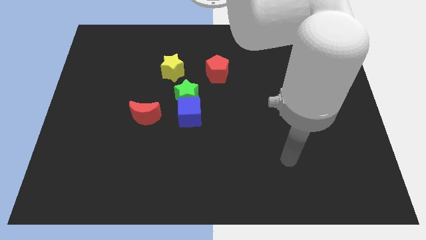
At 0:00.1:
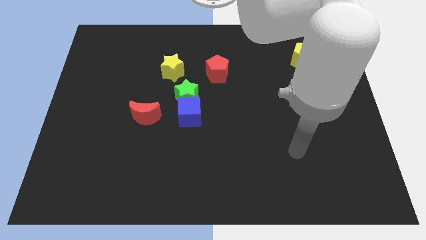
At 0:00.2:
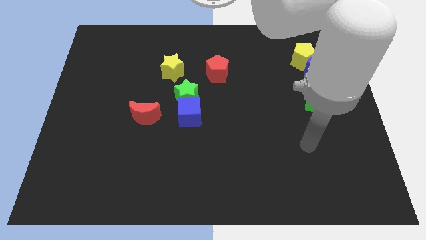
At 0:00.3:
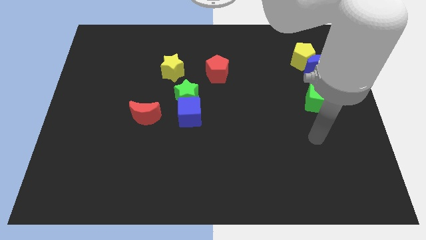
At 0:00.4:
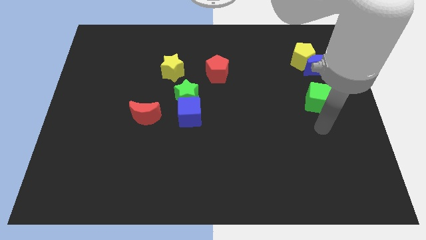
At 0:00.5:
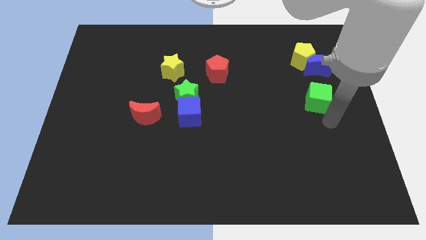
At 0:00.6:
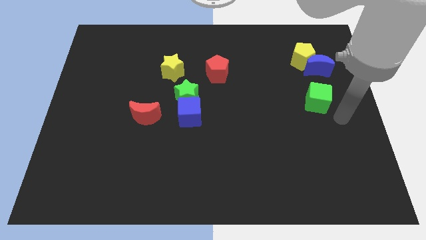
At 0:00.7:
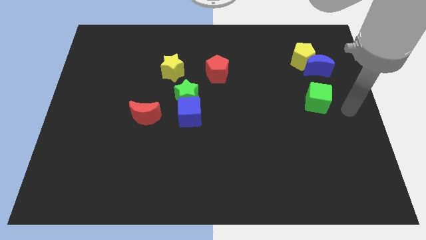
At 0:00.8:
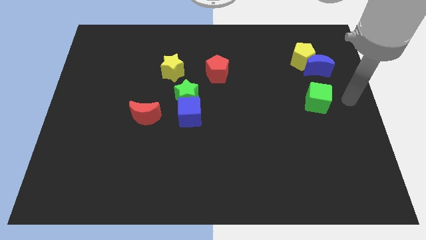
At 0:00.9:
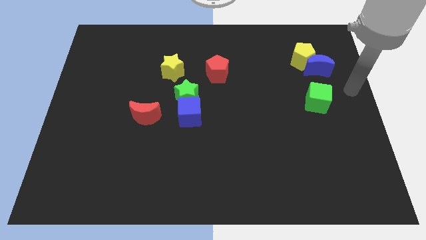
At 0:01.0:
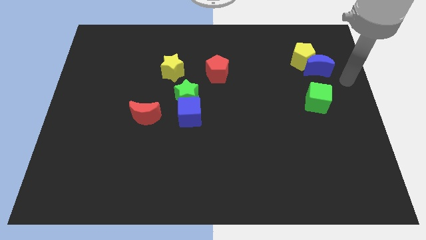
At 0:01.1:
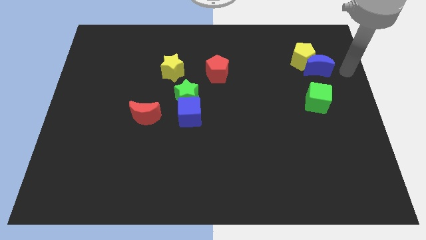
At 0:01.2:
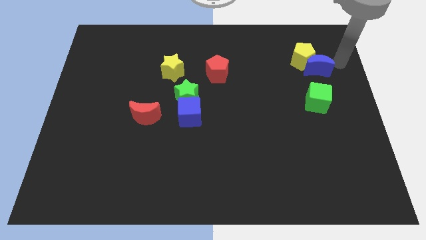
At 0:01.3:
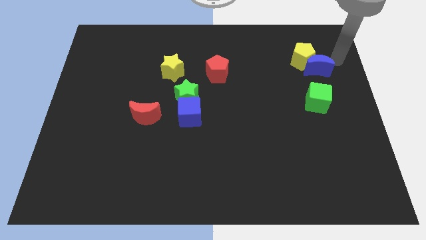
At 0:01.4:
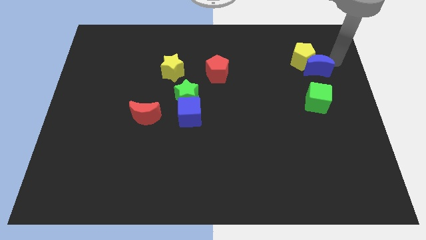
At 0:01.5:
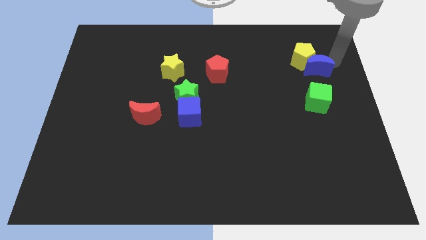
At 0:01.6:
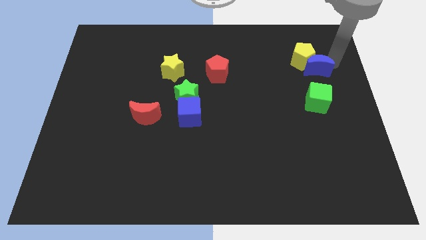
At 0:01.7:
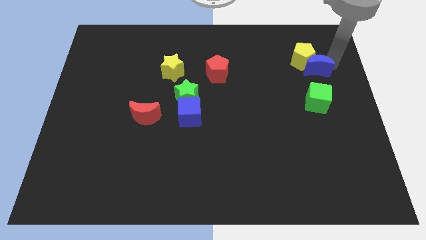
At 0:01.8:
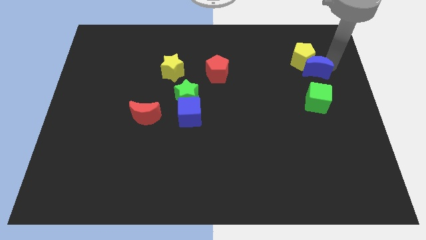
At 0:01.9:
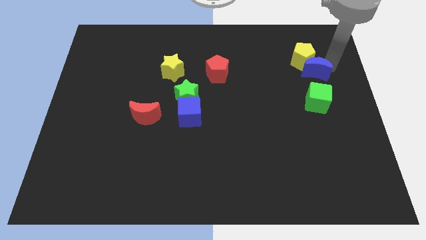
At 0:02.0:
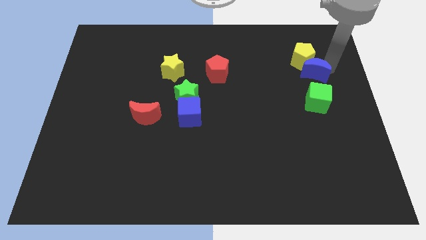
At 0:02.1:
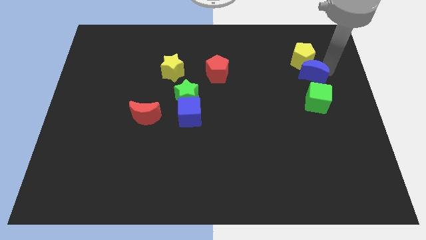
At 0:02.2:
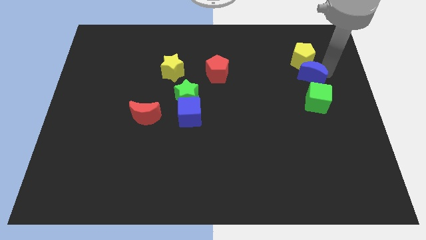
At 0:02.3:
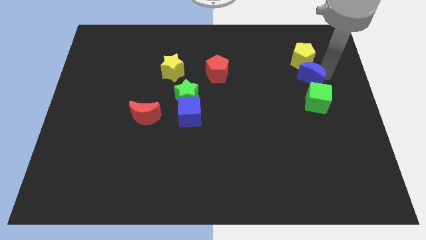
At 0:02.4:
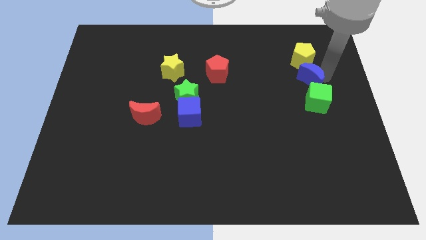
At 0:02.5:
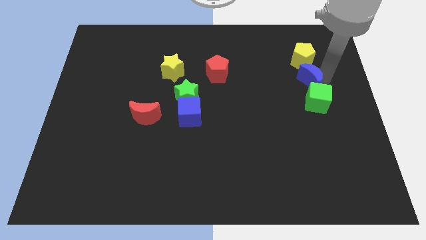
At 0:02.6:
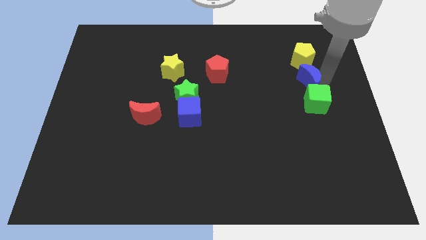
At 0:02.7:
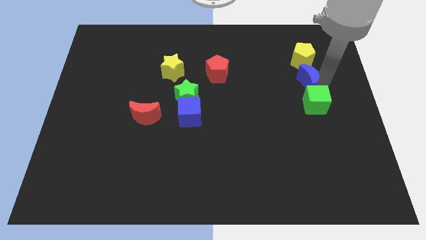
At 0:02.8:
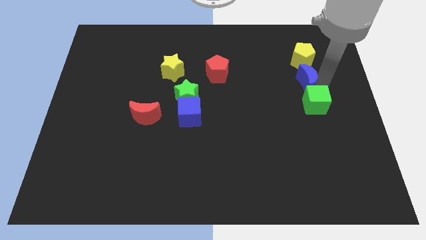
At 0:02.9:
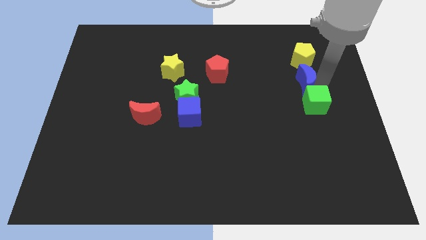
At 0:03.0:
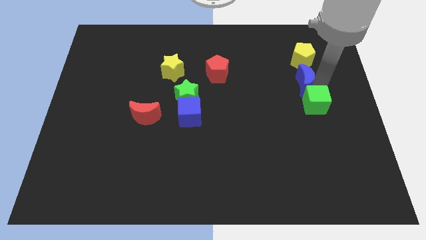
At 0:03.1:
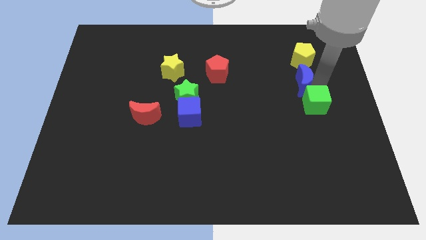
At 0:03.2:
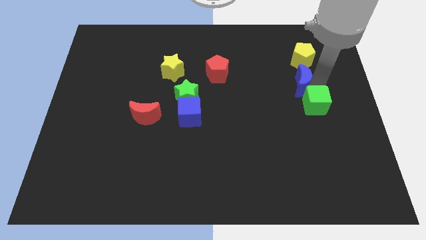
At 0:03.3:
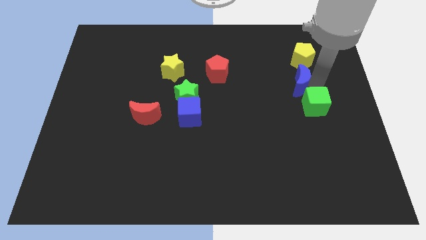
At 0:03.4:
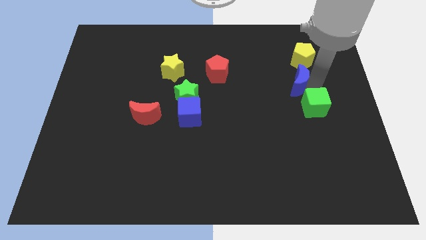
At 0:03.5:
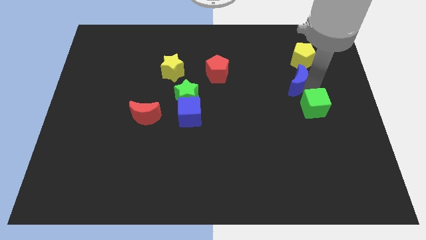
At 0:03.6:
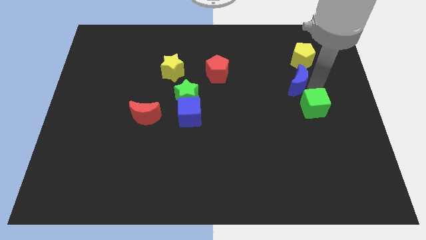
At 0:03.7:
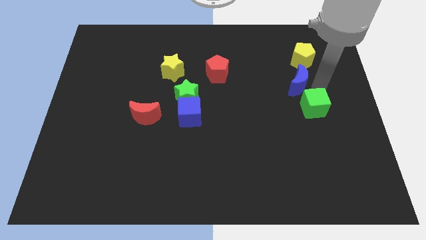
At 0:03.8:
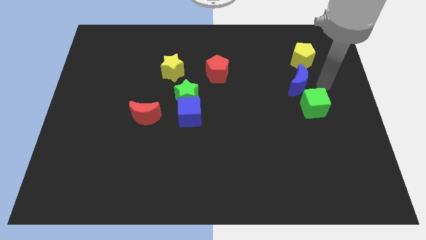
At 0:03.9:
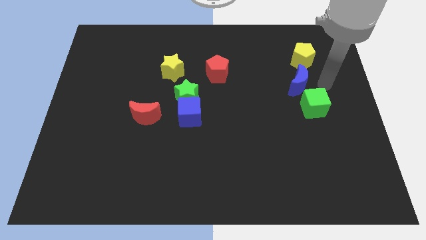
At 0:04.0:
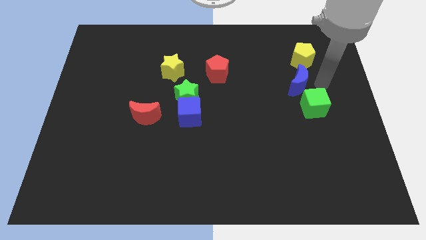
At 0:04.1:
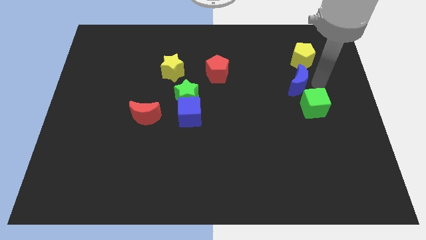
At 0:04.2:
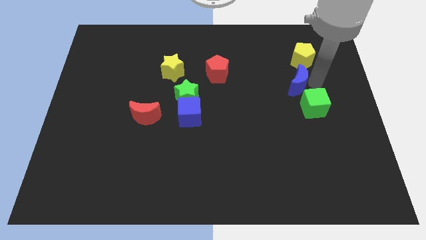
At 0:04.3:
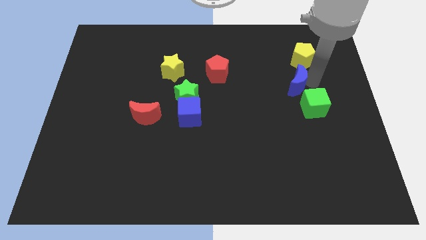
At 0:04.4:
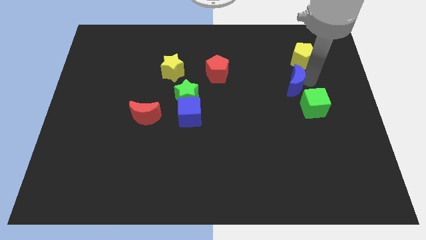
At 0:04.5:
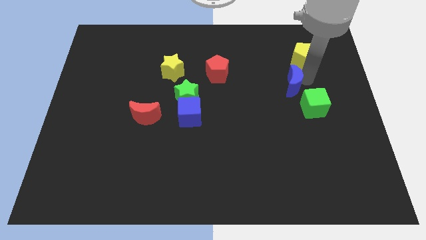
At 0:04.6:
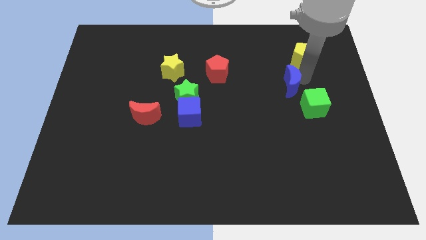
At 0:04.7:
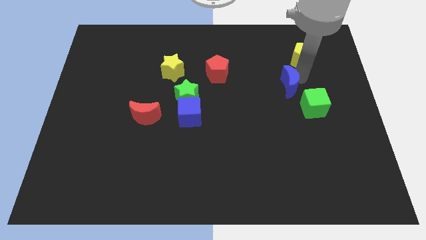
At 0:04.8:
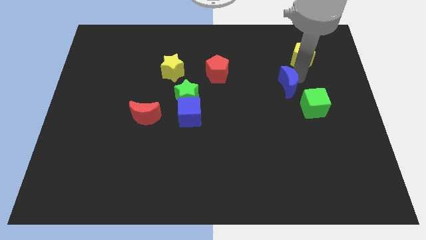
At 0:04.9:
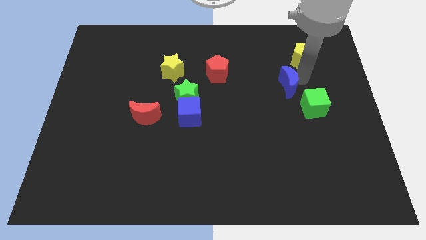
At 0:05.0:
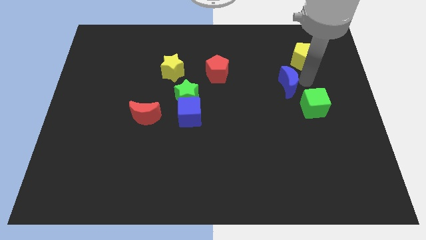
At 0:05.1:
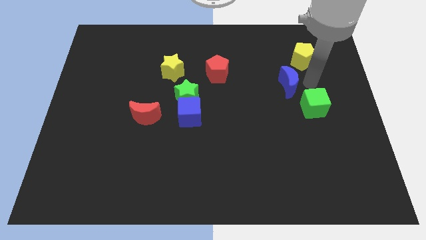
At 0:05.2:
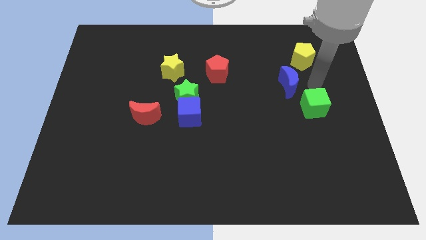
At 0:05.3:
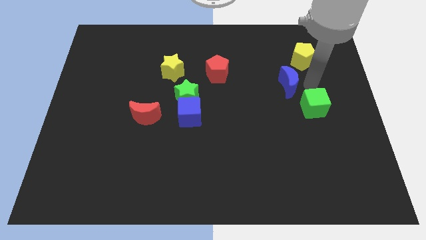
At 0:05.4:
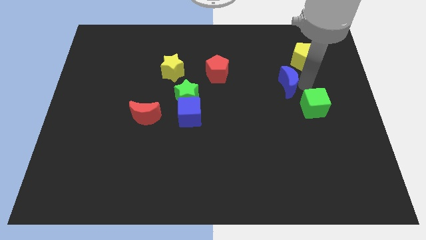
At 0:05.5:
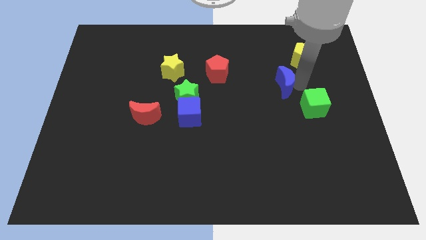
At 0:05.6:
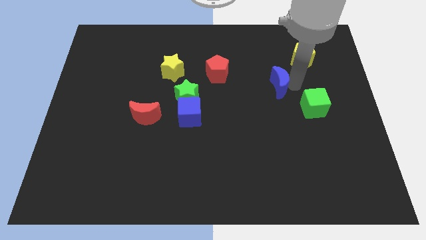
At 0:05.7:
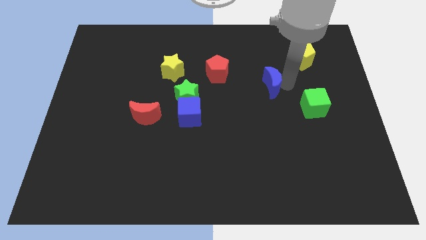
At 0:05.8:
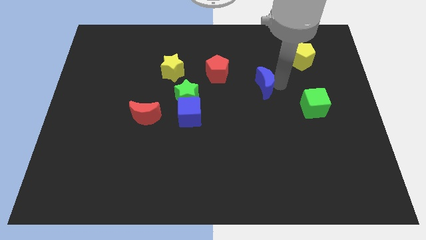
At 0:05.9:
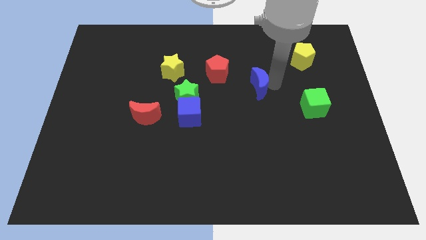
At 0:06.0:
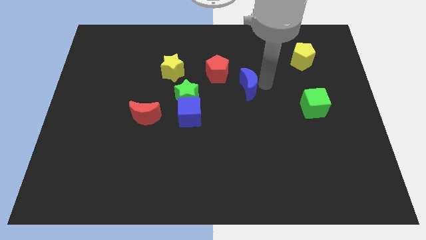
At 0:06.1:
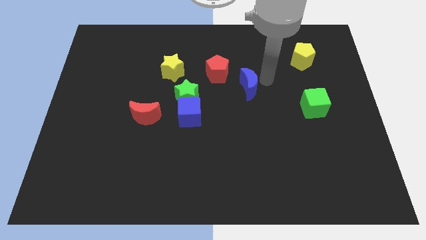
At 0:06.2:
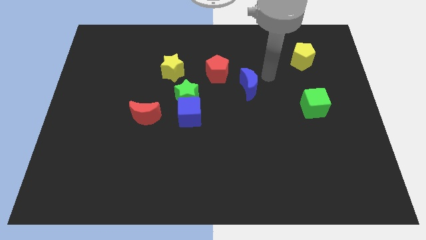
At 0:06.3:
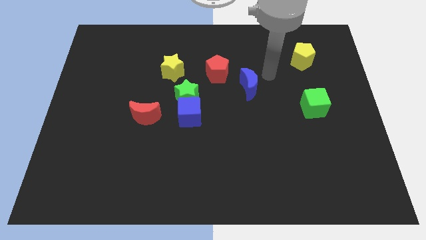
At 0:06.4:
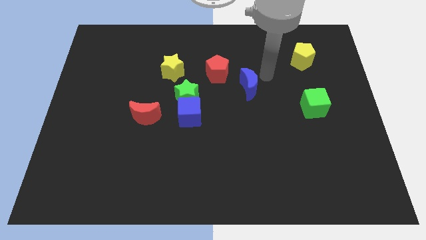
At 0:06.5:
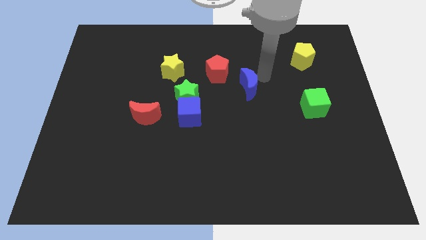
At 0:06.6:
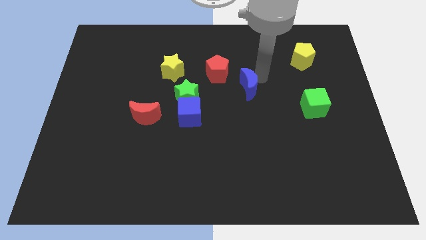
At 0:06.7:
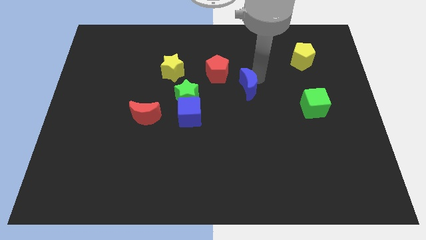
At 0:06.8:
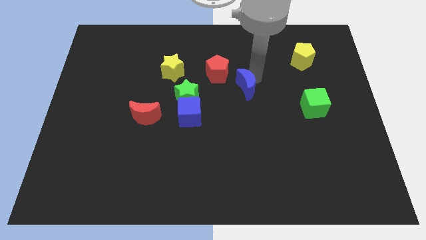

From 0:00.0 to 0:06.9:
put the blue moon to the right of the green star

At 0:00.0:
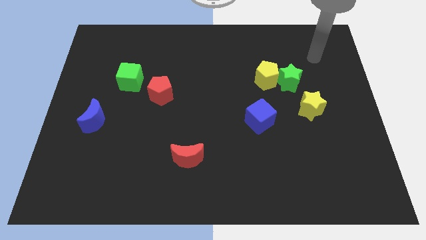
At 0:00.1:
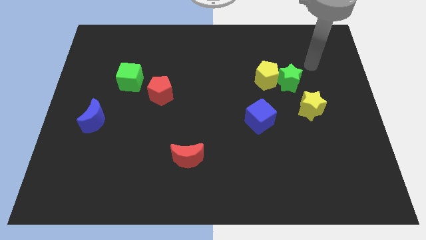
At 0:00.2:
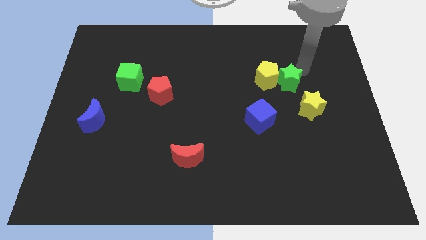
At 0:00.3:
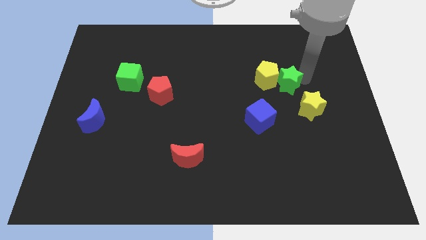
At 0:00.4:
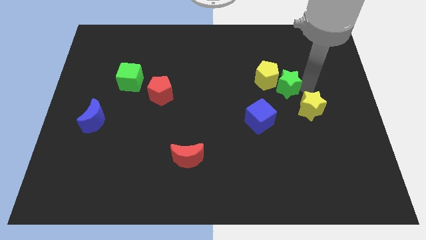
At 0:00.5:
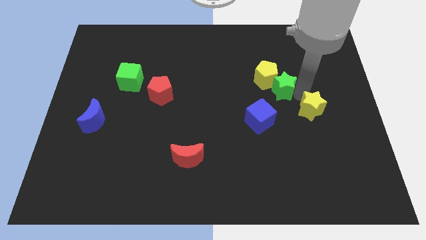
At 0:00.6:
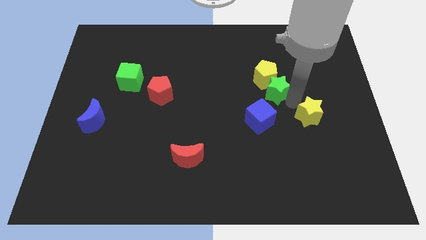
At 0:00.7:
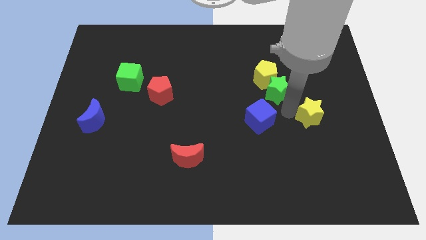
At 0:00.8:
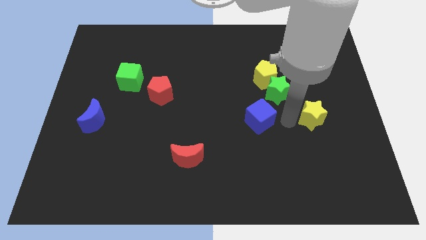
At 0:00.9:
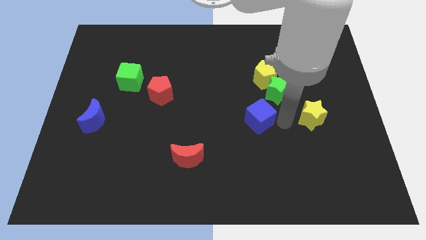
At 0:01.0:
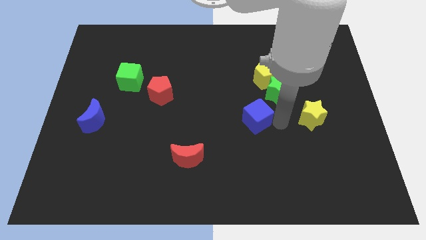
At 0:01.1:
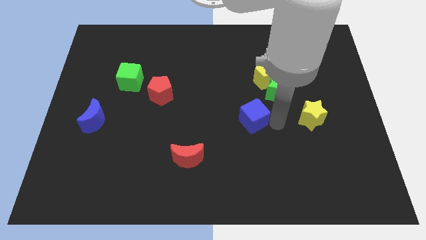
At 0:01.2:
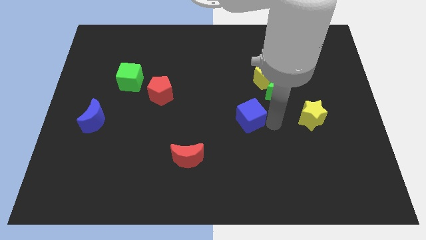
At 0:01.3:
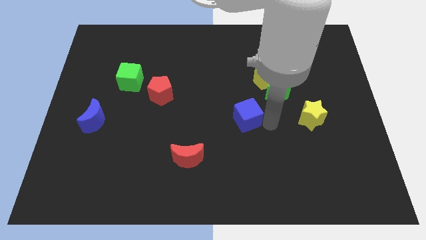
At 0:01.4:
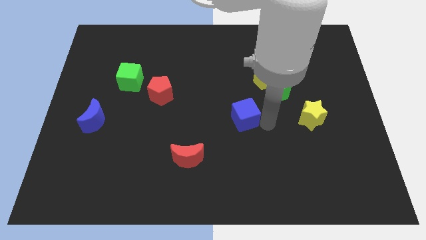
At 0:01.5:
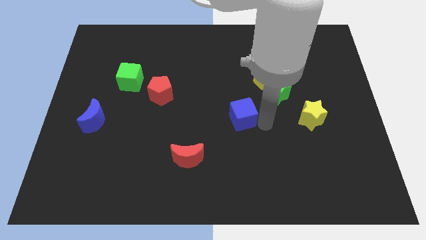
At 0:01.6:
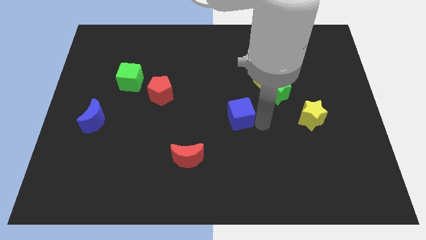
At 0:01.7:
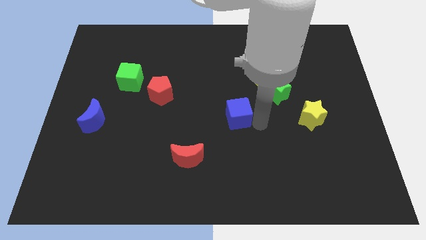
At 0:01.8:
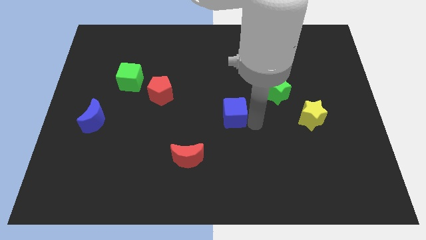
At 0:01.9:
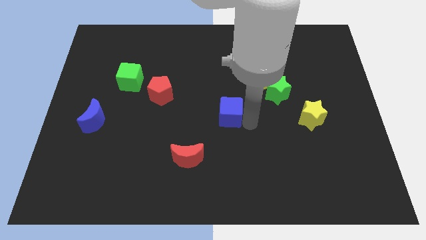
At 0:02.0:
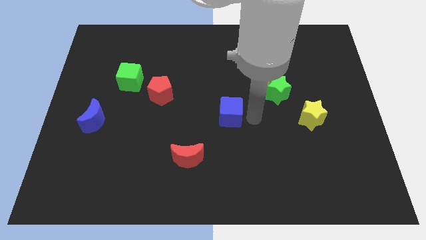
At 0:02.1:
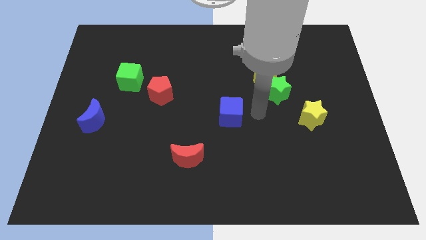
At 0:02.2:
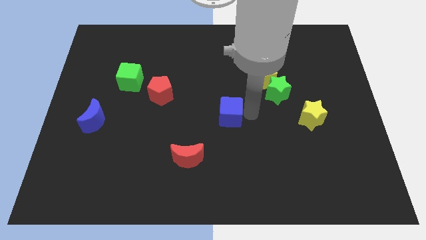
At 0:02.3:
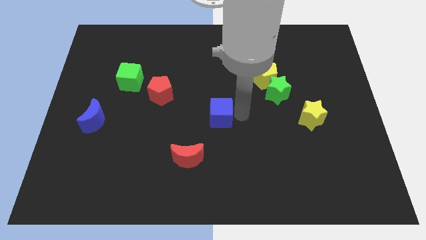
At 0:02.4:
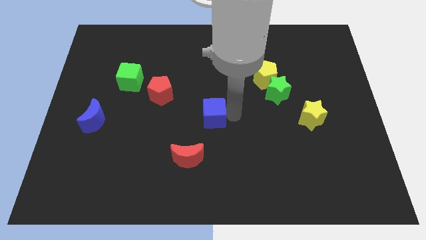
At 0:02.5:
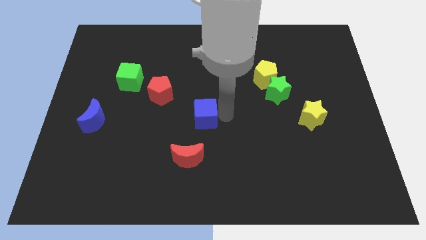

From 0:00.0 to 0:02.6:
slide the blue cube above the red moon
